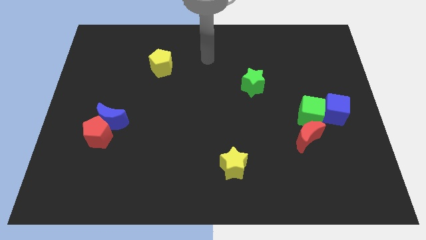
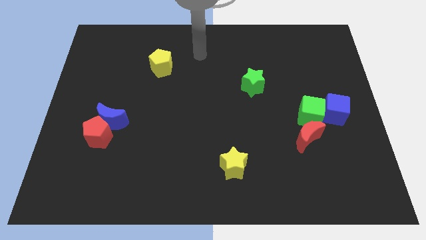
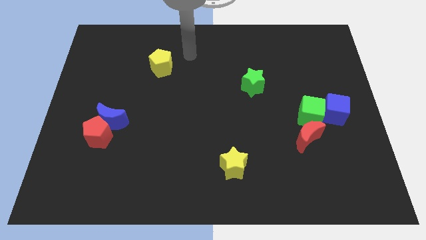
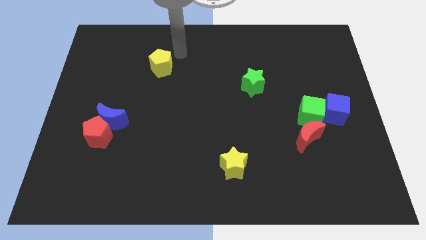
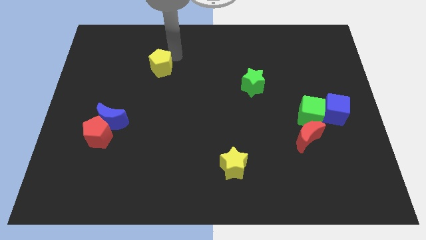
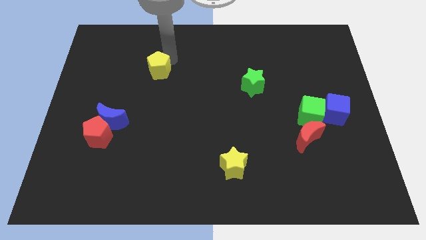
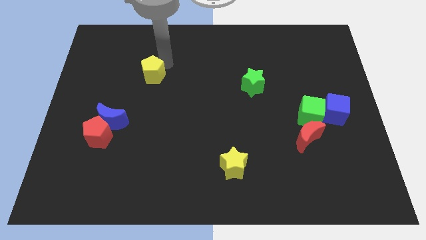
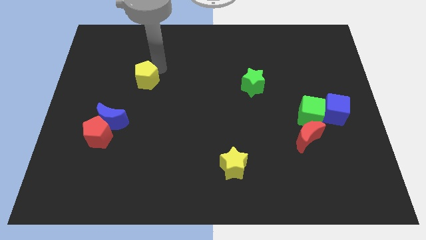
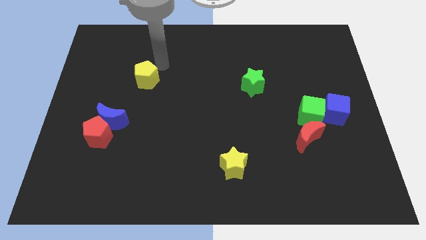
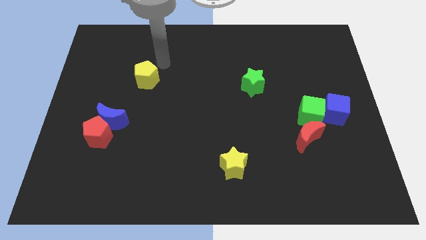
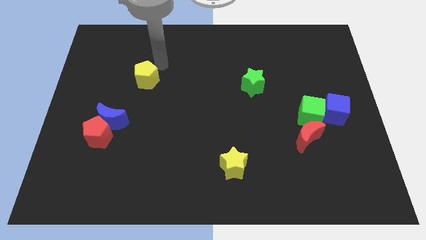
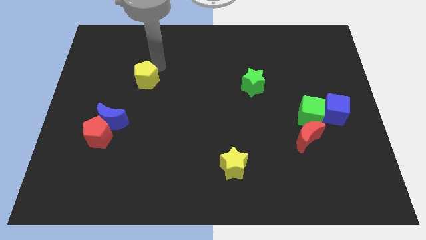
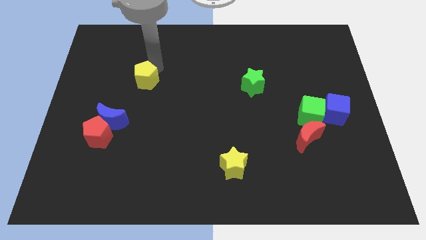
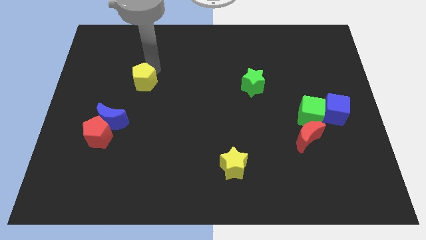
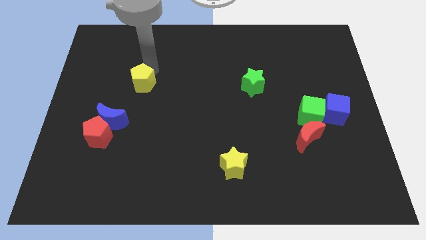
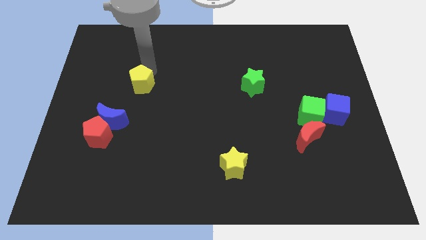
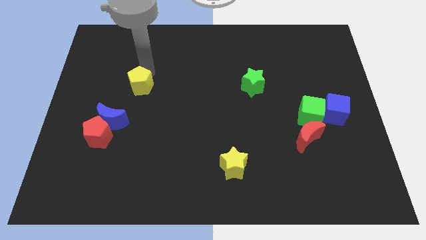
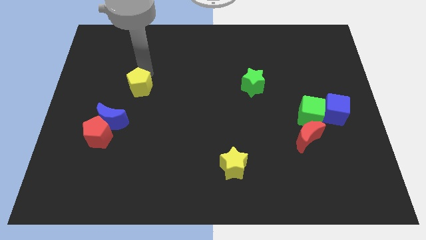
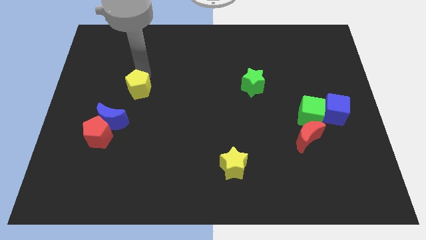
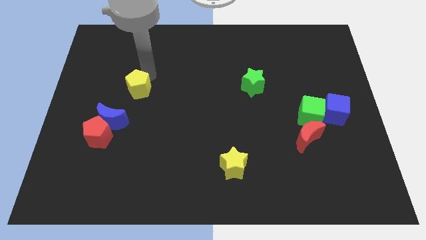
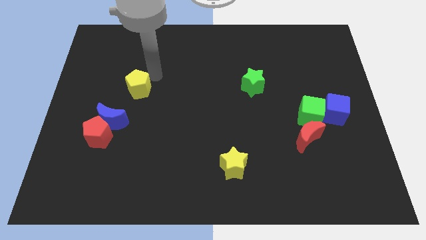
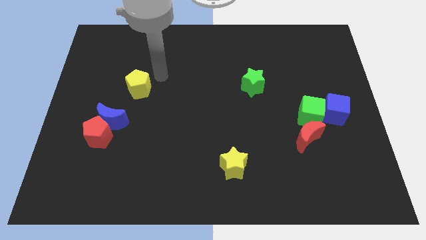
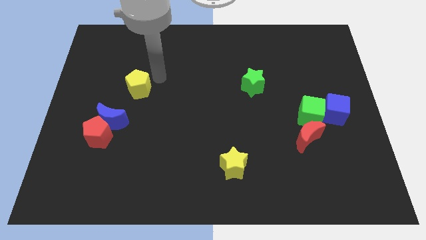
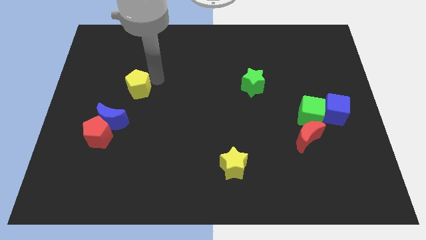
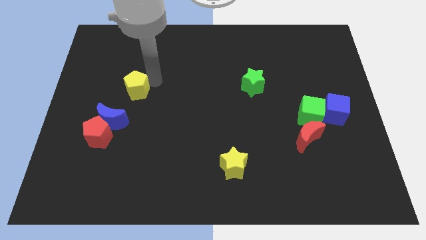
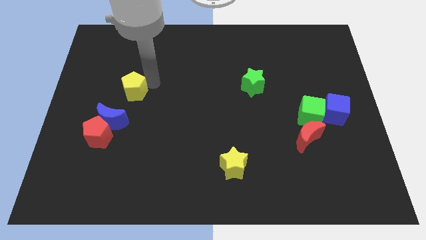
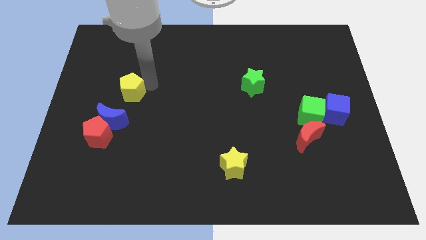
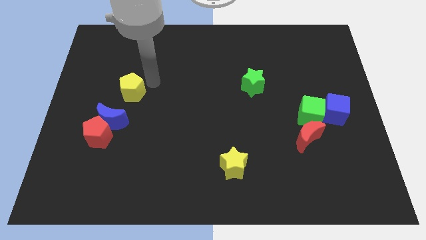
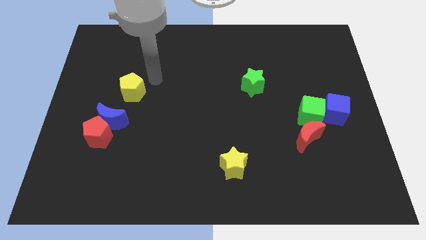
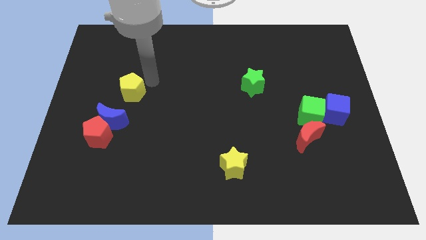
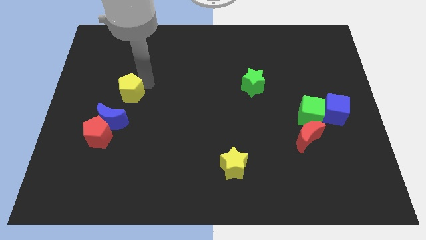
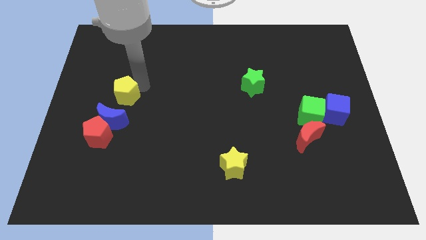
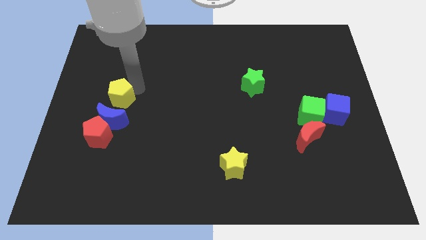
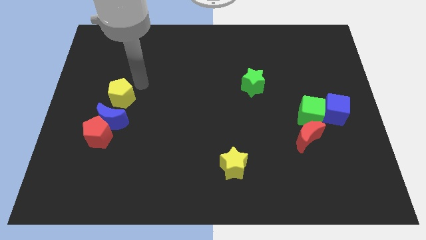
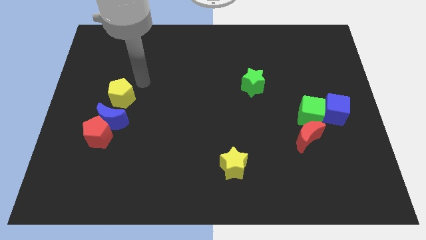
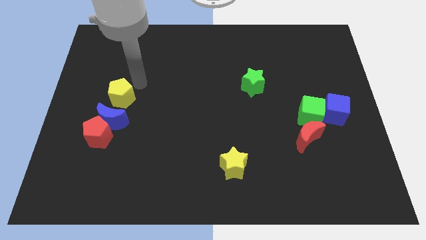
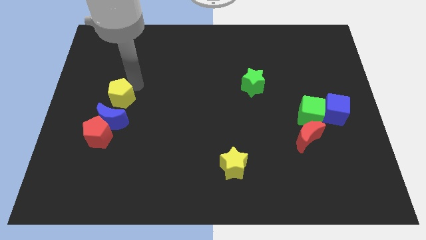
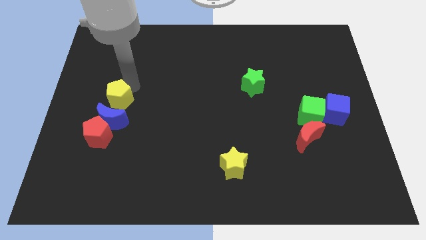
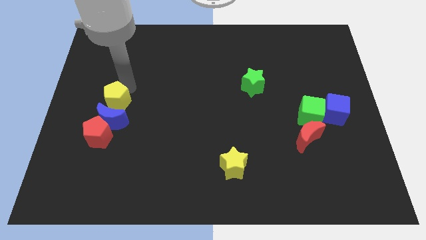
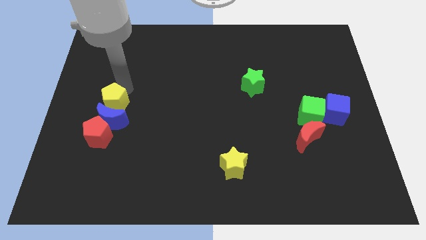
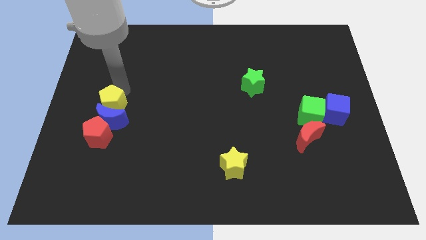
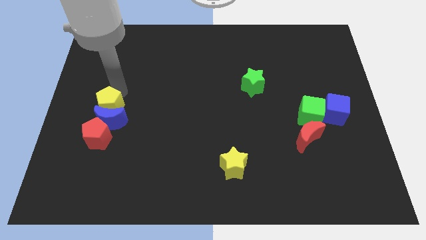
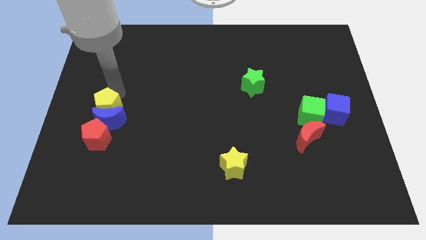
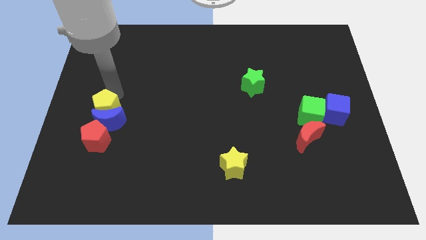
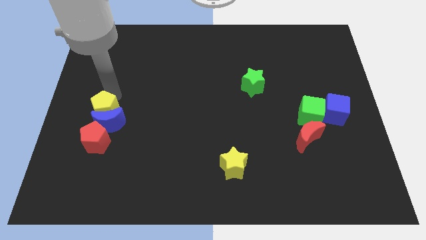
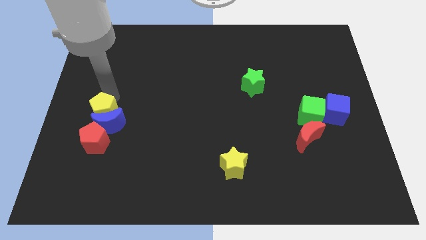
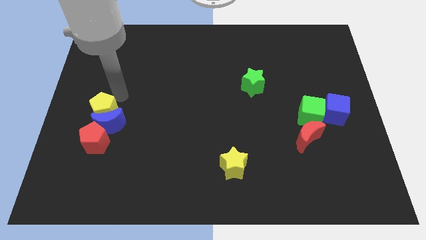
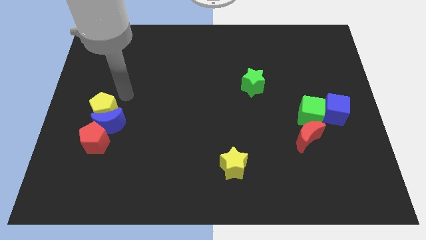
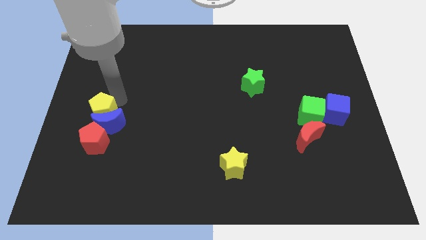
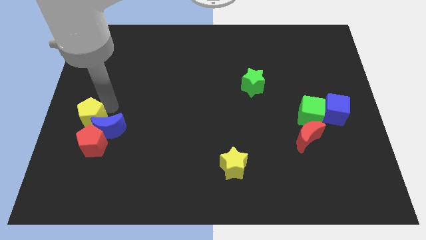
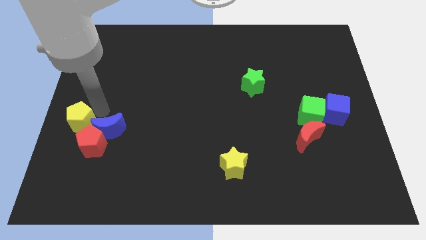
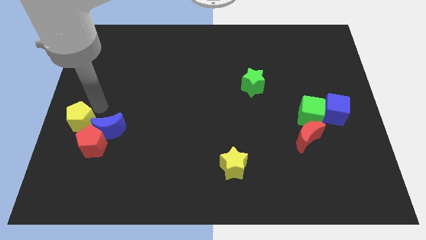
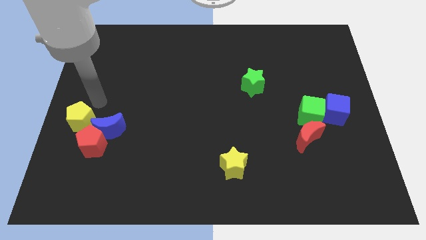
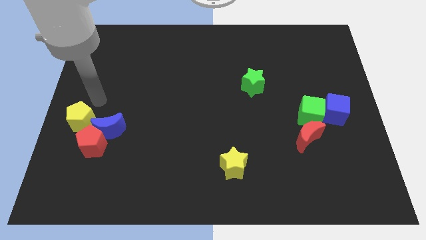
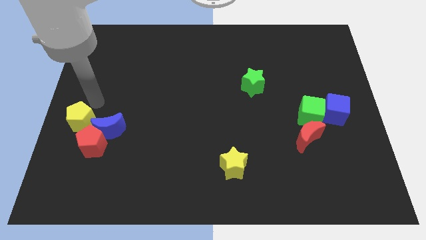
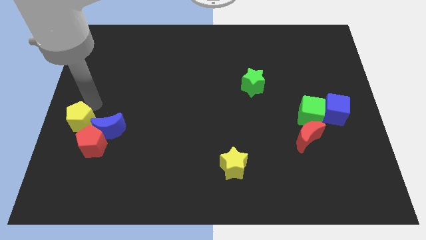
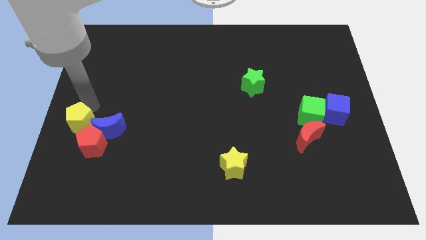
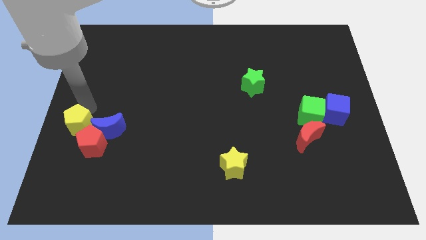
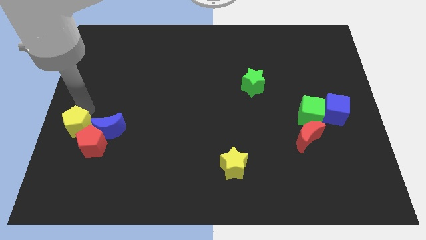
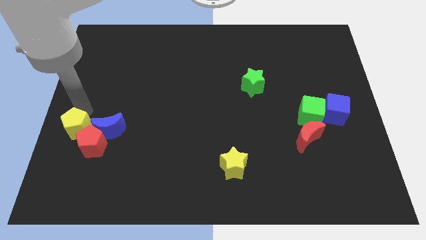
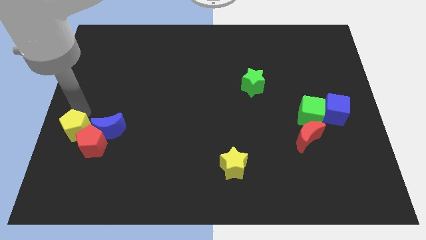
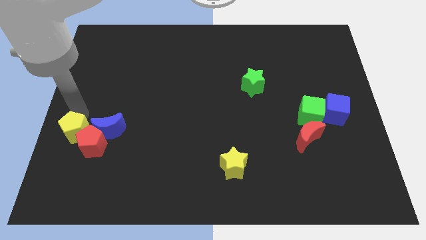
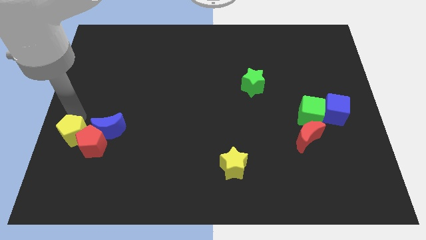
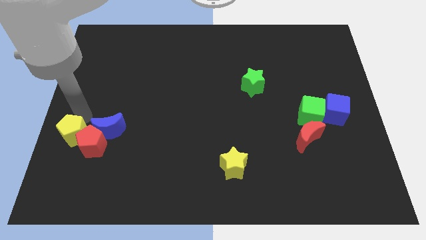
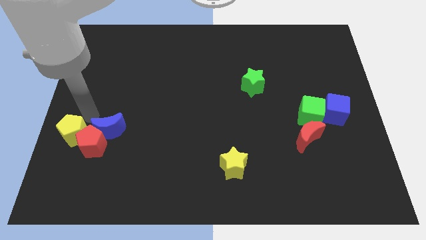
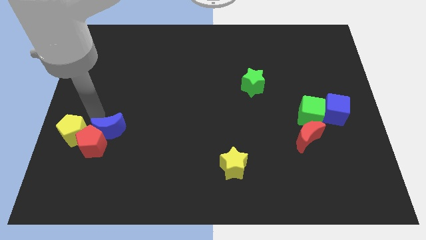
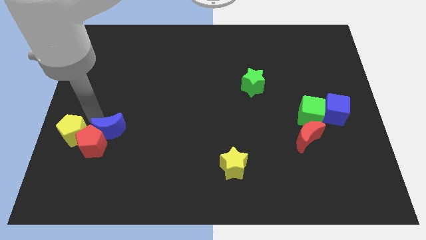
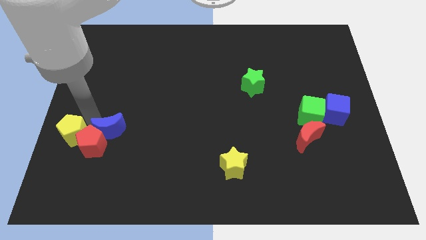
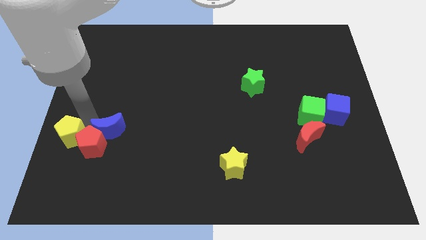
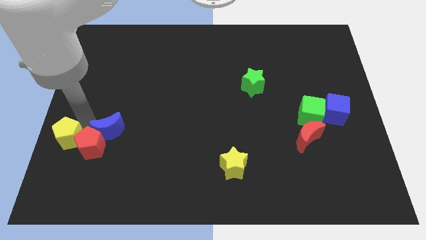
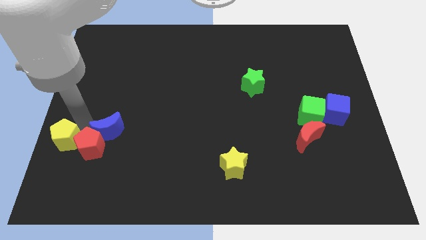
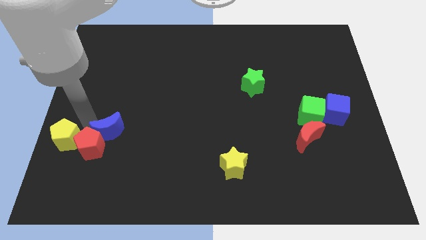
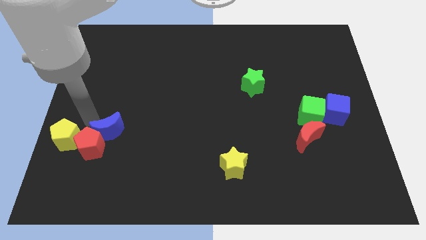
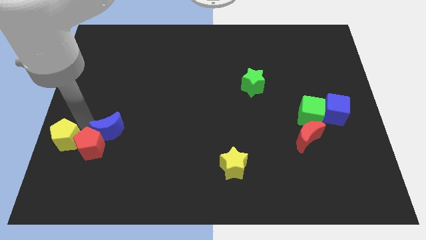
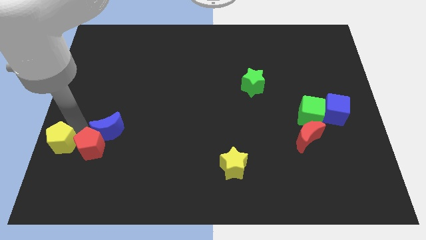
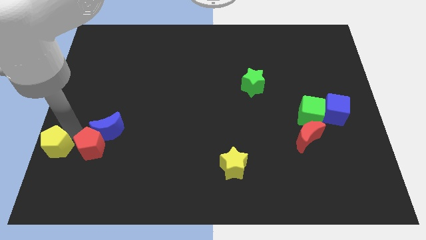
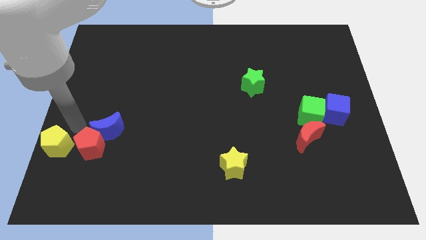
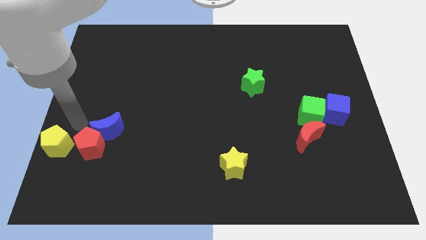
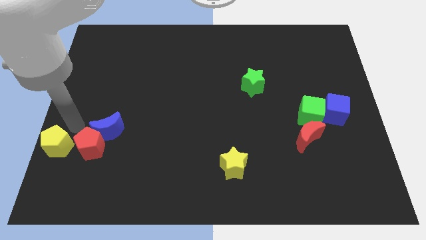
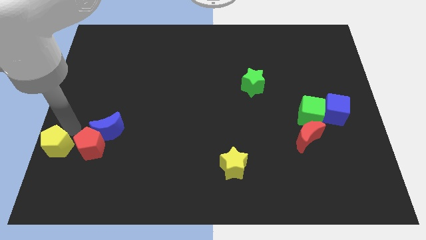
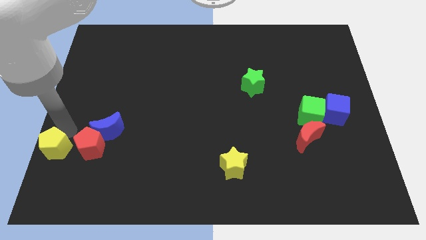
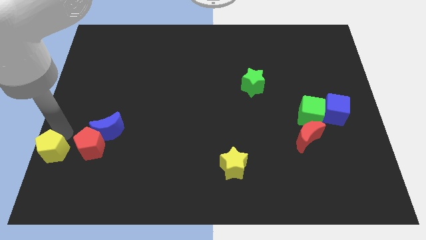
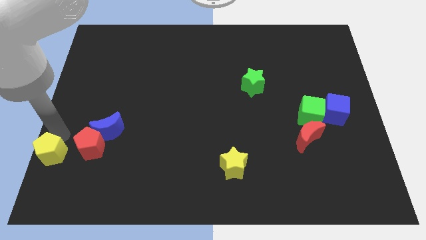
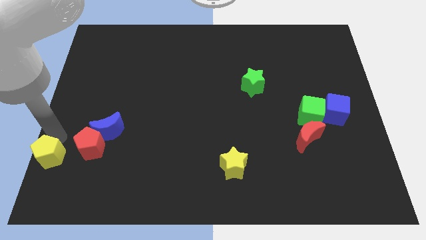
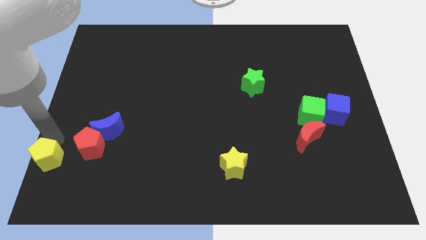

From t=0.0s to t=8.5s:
slide the yellow pentagon to the bottom left corner
